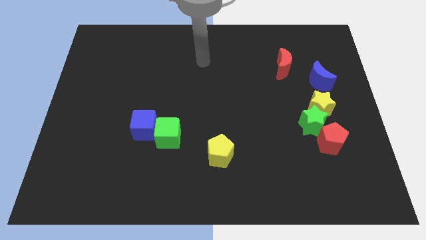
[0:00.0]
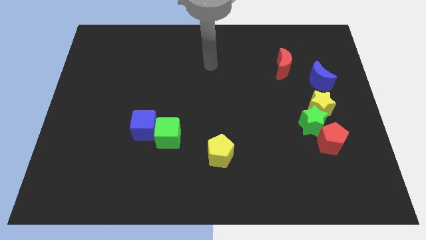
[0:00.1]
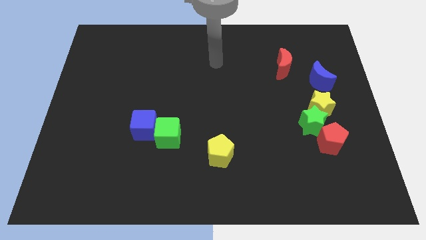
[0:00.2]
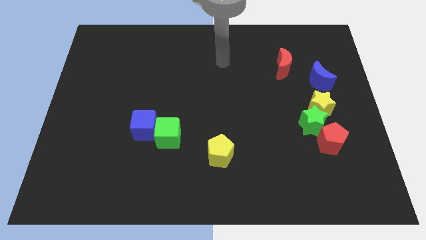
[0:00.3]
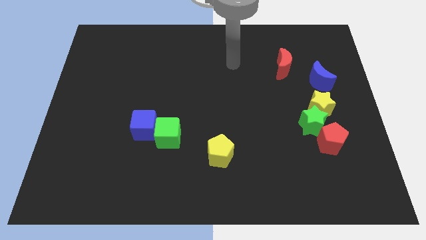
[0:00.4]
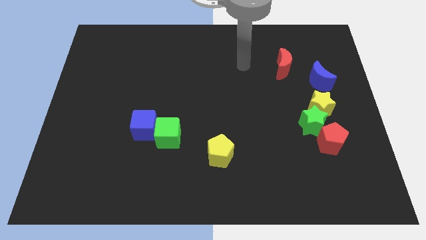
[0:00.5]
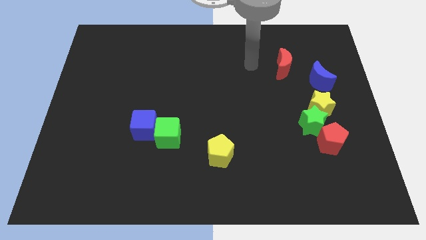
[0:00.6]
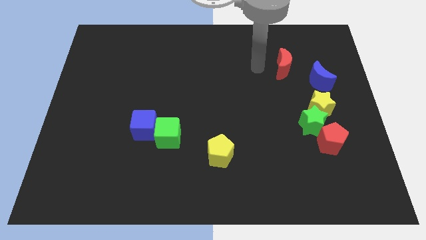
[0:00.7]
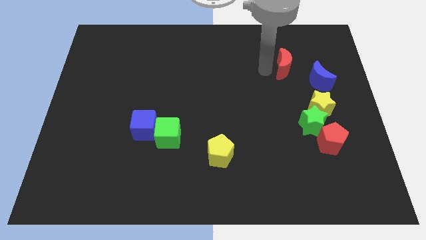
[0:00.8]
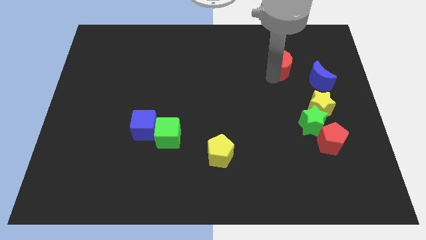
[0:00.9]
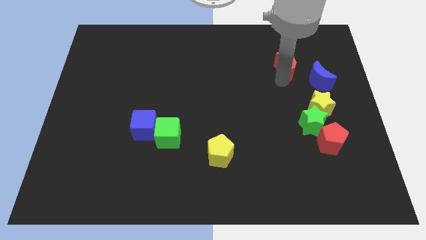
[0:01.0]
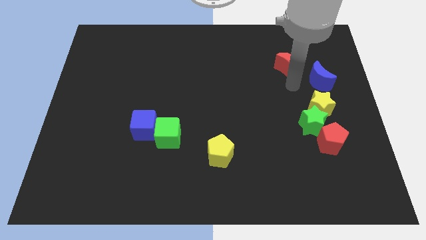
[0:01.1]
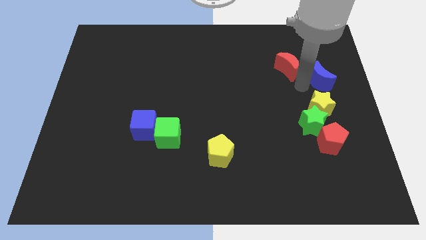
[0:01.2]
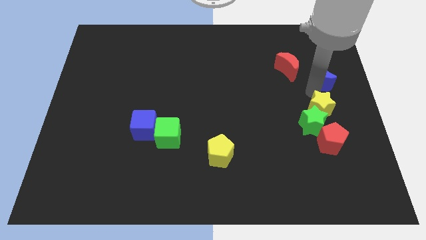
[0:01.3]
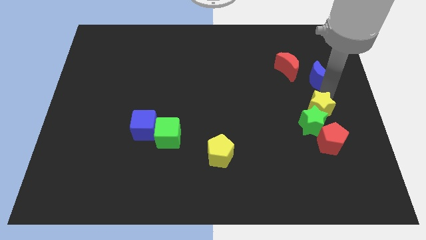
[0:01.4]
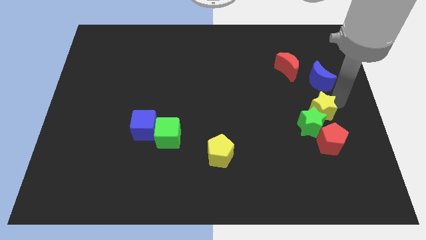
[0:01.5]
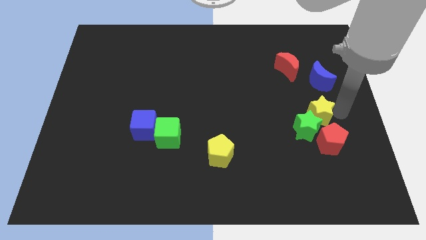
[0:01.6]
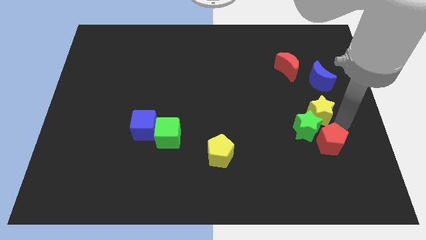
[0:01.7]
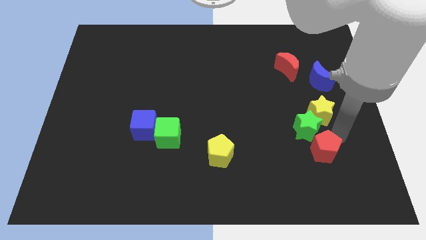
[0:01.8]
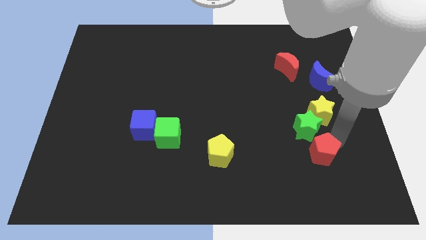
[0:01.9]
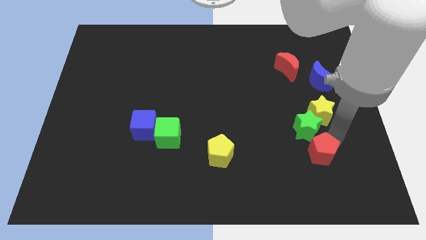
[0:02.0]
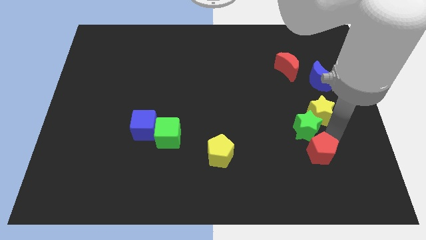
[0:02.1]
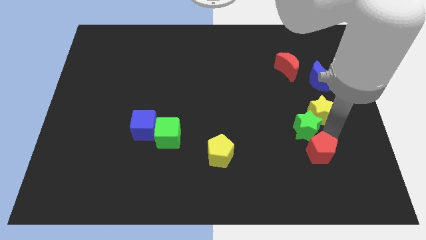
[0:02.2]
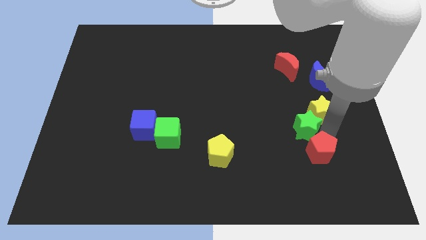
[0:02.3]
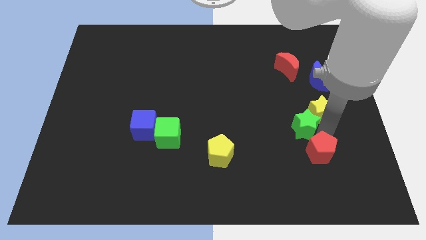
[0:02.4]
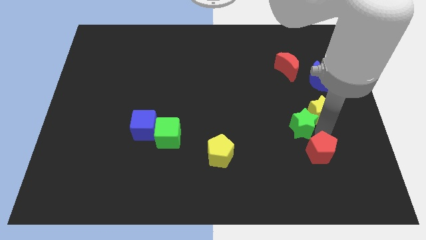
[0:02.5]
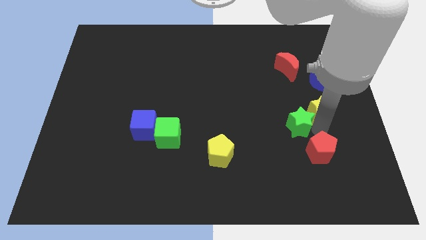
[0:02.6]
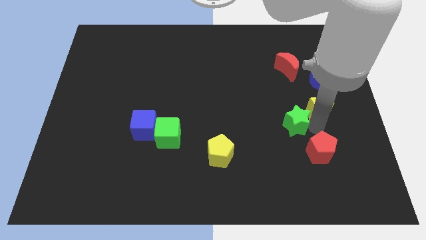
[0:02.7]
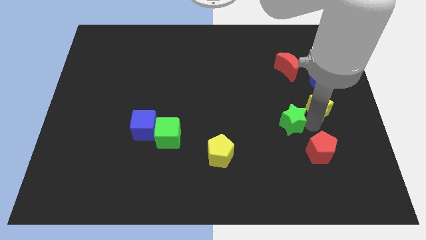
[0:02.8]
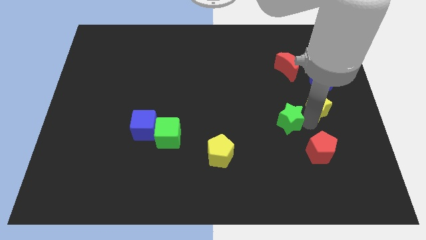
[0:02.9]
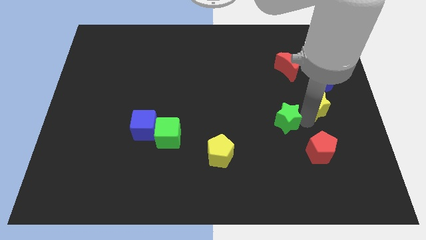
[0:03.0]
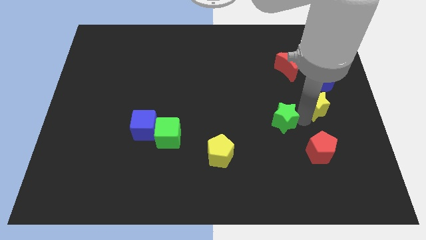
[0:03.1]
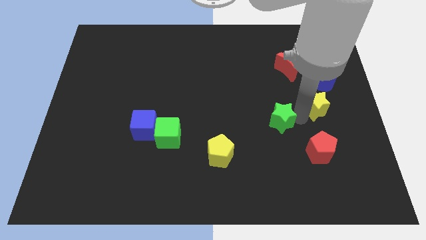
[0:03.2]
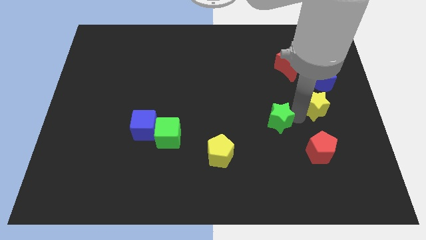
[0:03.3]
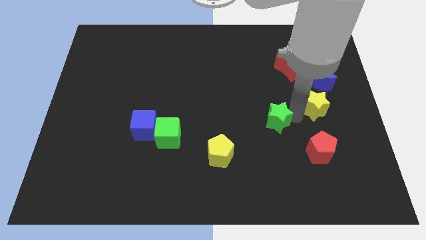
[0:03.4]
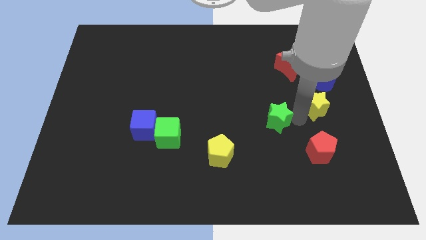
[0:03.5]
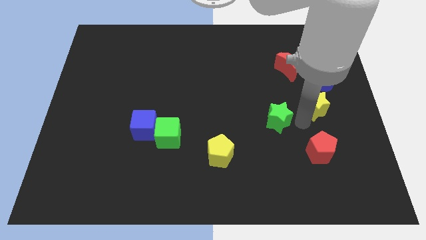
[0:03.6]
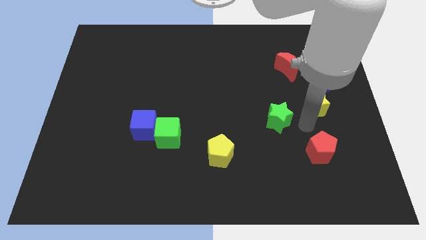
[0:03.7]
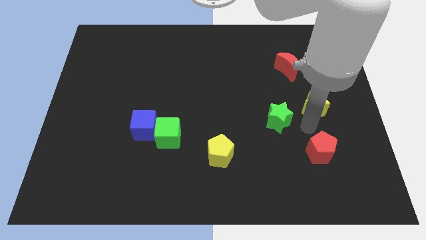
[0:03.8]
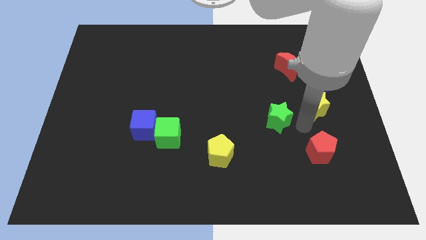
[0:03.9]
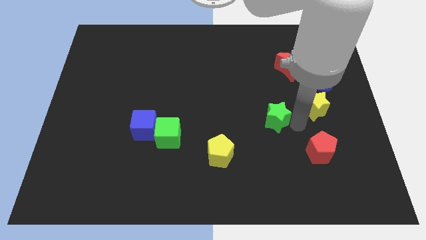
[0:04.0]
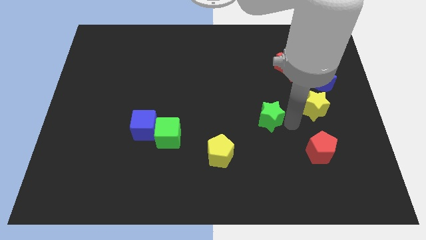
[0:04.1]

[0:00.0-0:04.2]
move the green star away from the red pentagon and yellow star

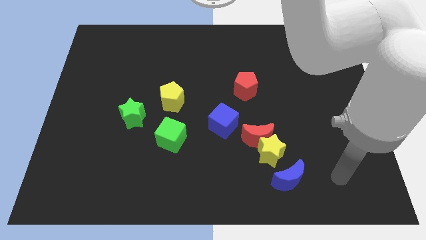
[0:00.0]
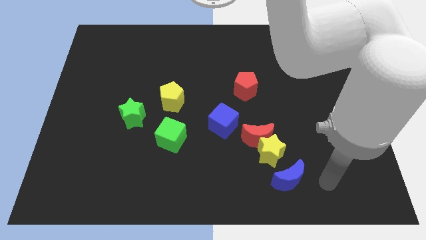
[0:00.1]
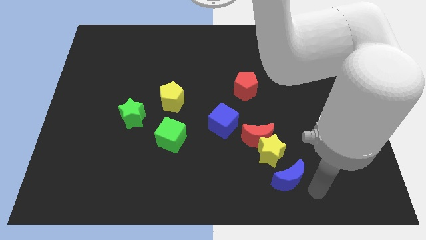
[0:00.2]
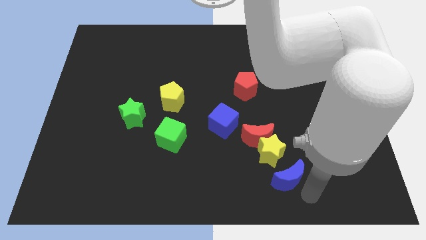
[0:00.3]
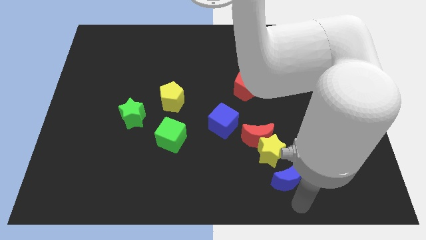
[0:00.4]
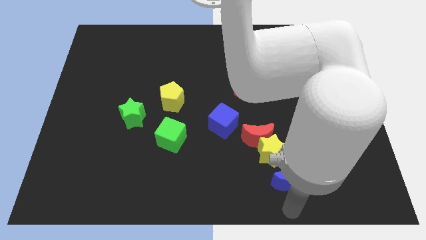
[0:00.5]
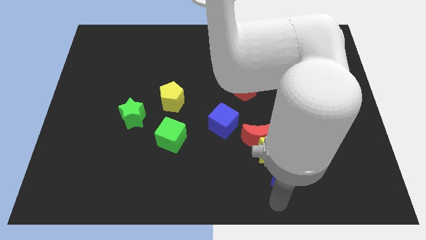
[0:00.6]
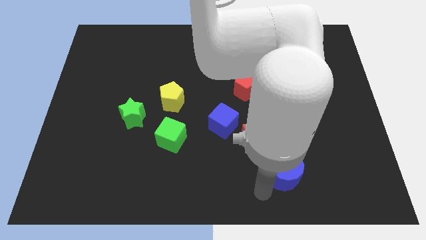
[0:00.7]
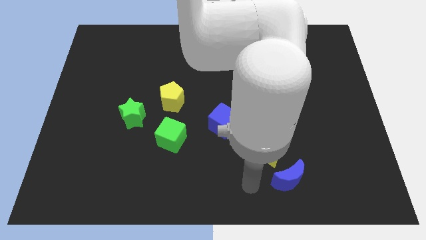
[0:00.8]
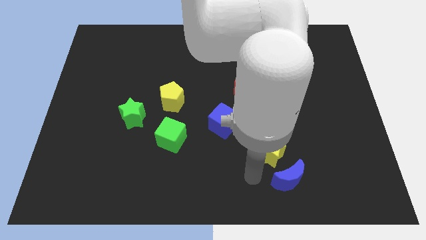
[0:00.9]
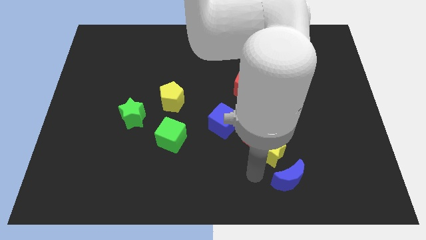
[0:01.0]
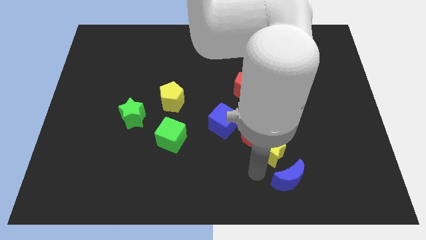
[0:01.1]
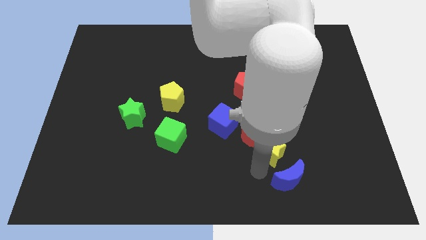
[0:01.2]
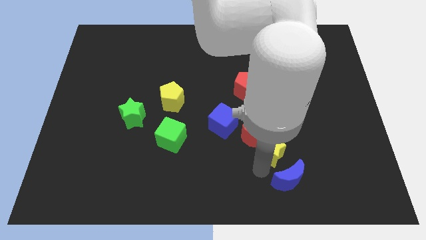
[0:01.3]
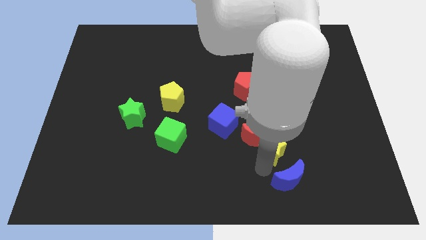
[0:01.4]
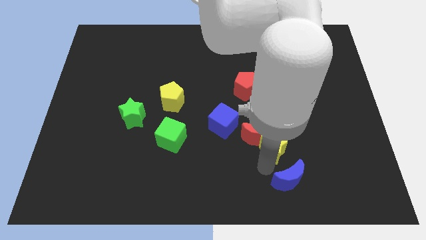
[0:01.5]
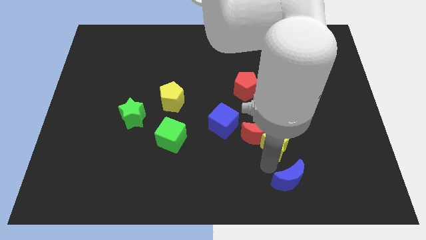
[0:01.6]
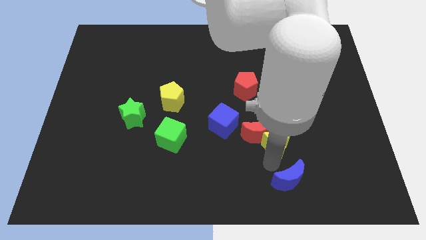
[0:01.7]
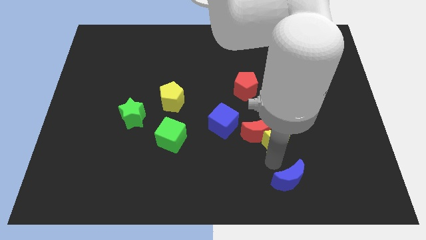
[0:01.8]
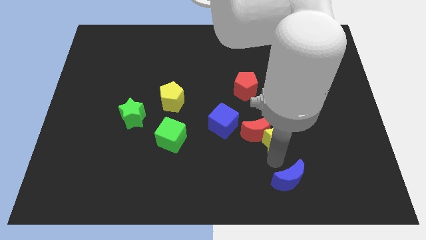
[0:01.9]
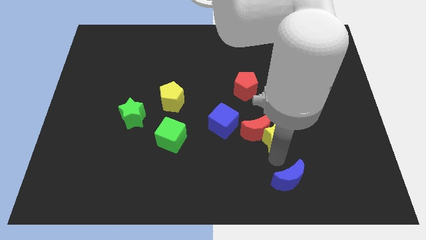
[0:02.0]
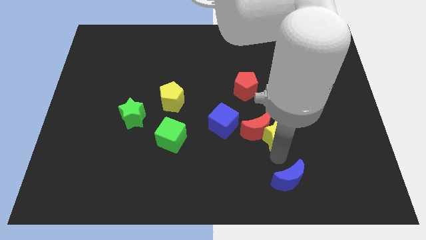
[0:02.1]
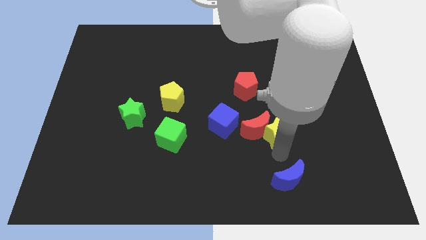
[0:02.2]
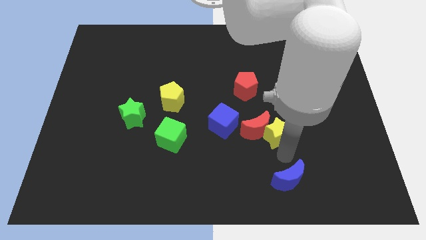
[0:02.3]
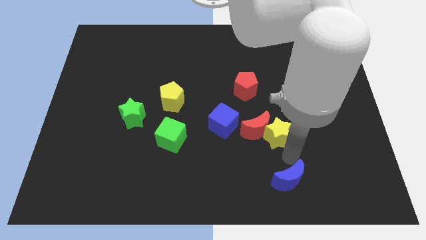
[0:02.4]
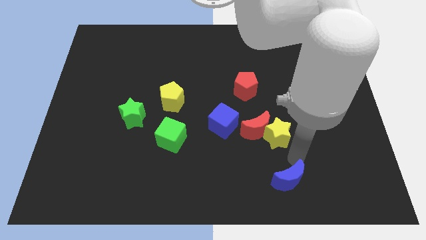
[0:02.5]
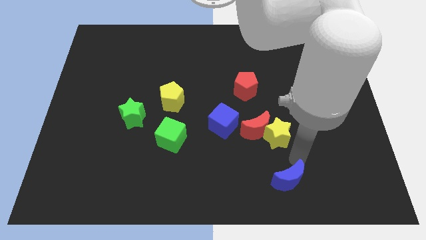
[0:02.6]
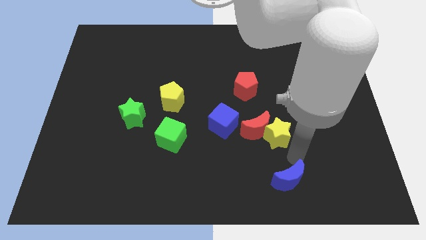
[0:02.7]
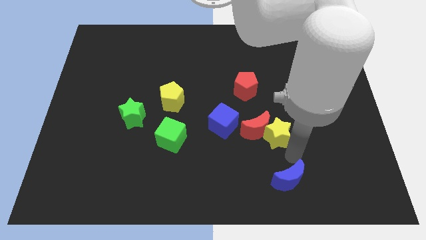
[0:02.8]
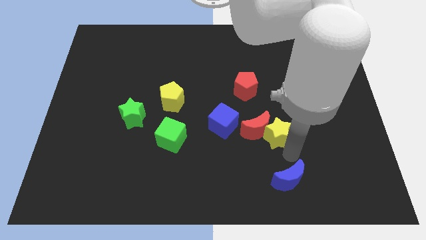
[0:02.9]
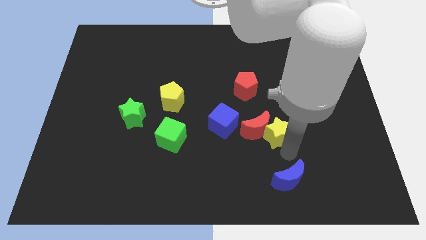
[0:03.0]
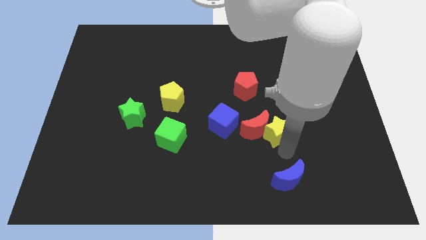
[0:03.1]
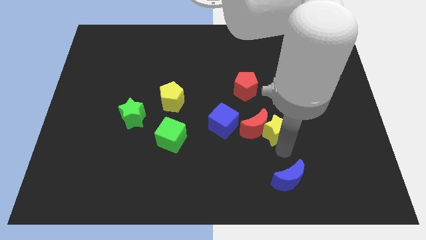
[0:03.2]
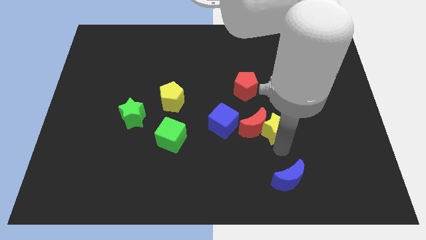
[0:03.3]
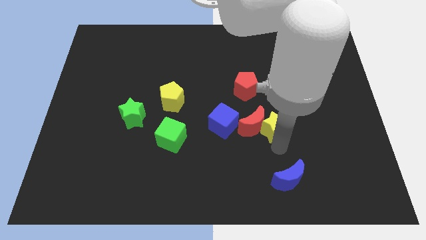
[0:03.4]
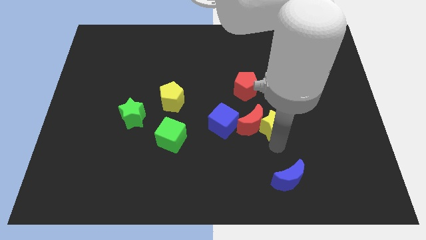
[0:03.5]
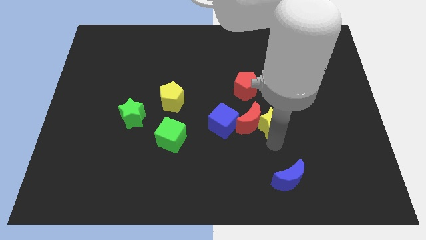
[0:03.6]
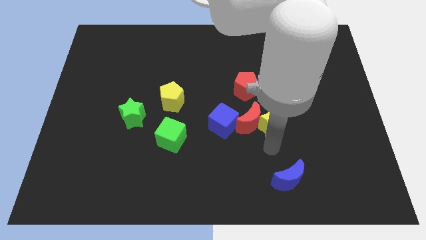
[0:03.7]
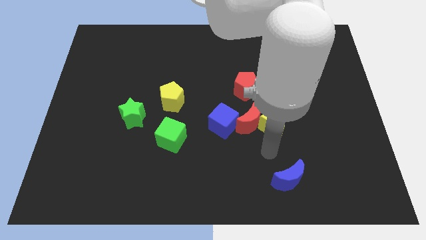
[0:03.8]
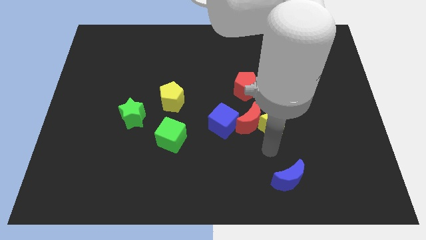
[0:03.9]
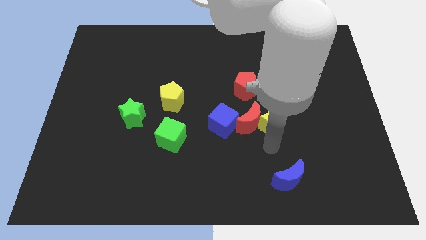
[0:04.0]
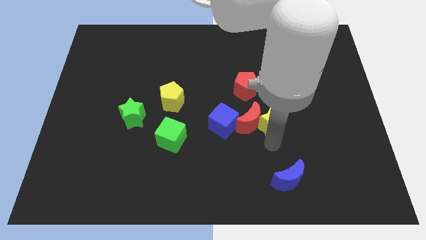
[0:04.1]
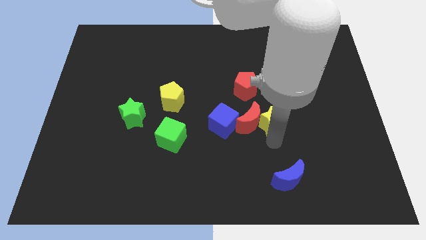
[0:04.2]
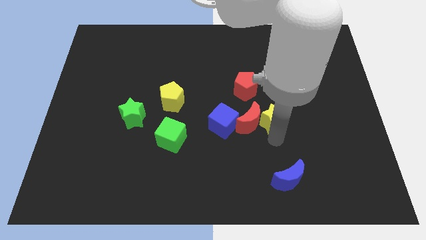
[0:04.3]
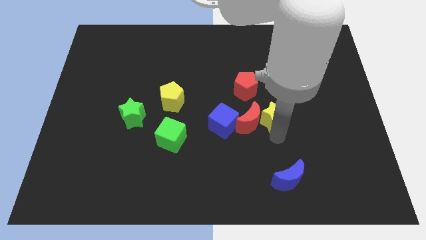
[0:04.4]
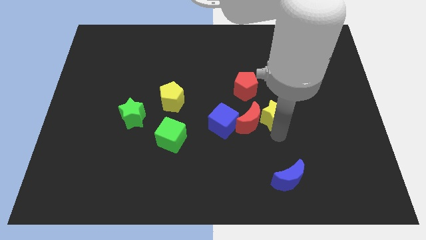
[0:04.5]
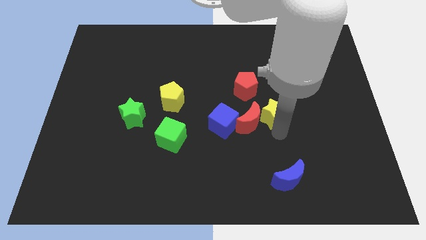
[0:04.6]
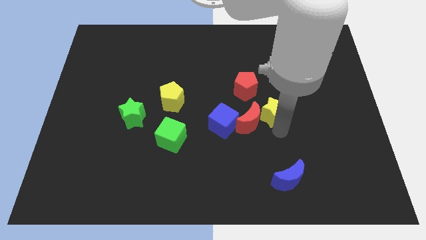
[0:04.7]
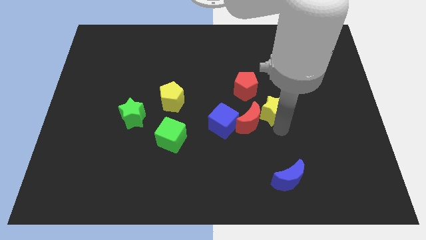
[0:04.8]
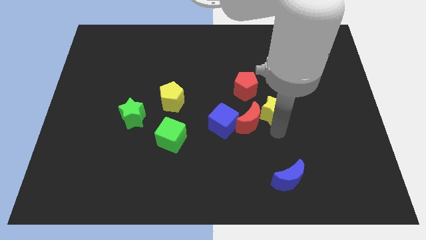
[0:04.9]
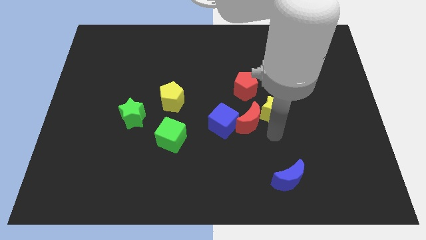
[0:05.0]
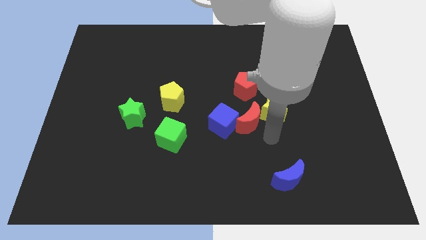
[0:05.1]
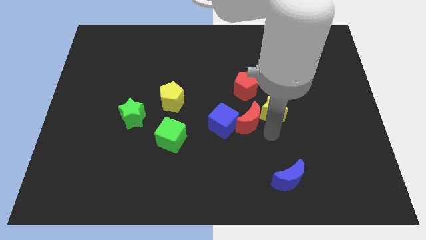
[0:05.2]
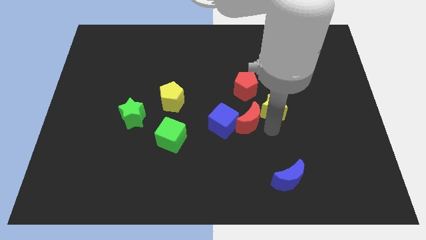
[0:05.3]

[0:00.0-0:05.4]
pull the yellow star apart from the red moon and blue moon
